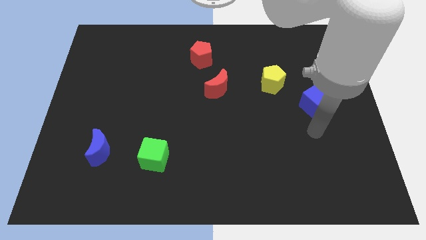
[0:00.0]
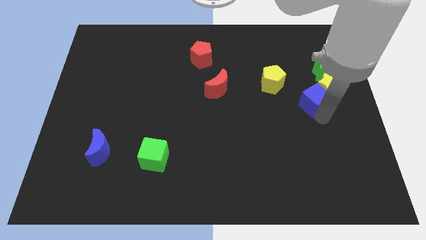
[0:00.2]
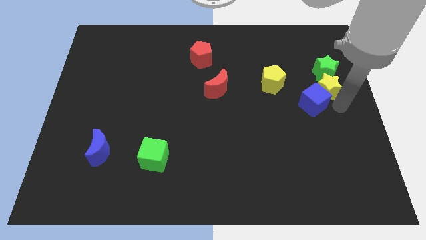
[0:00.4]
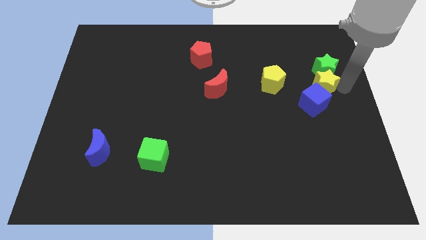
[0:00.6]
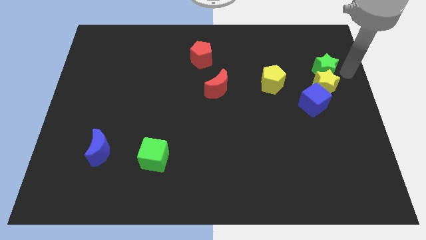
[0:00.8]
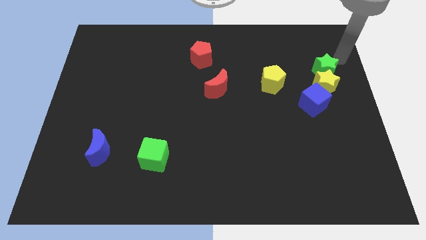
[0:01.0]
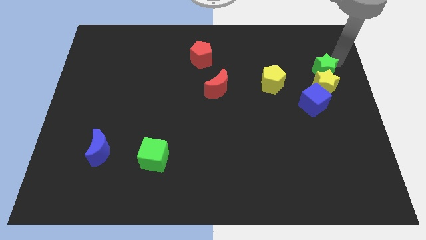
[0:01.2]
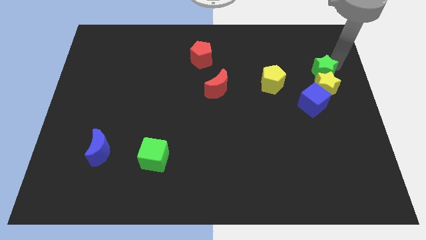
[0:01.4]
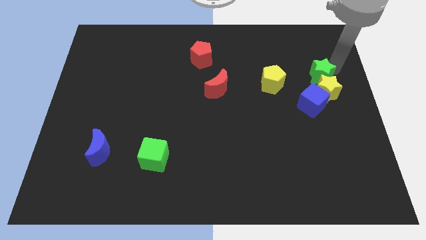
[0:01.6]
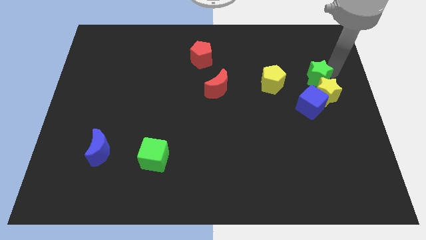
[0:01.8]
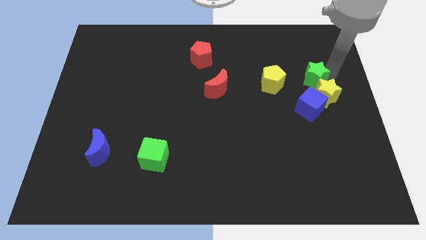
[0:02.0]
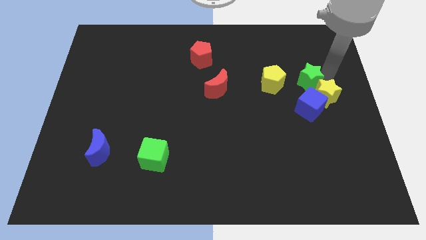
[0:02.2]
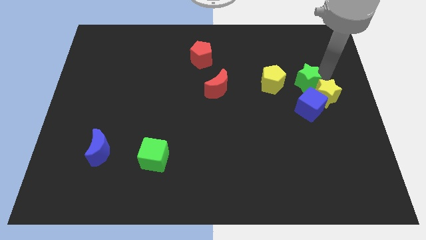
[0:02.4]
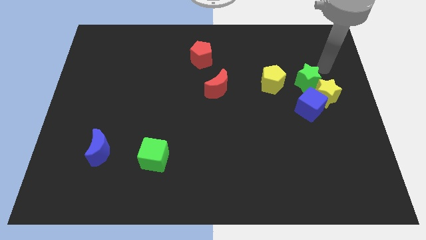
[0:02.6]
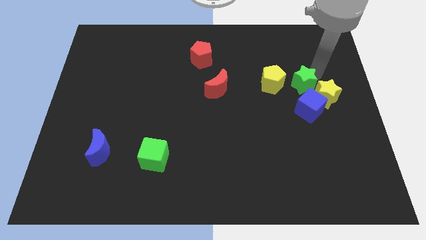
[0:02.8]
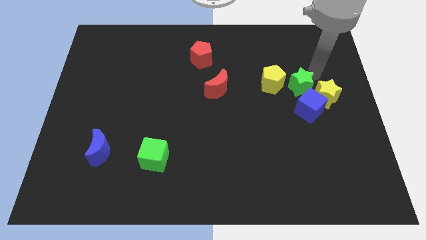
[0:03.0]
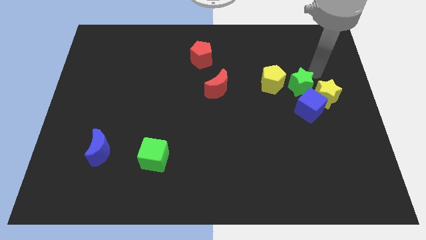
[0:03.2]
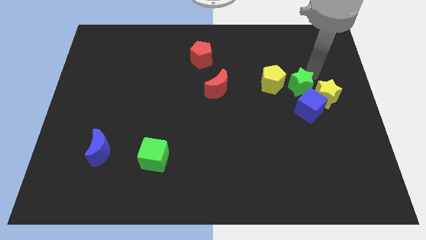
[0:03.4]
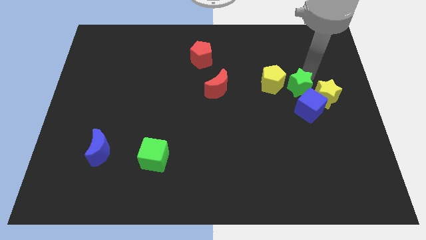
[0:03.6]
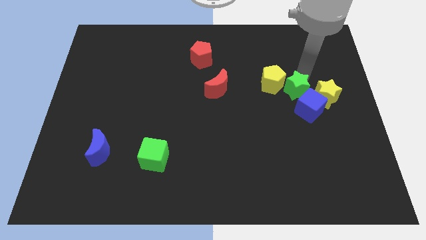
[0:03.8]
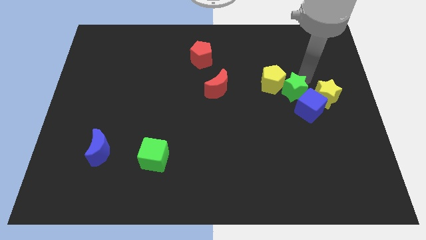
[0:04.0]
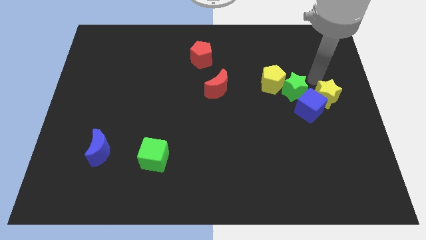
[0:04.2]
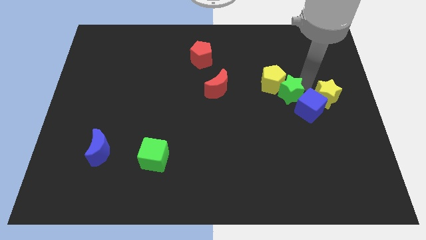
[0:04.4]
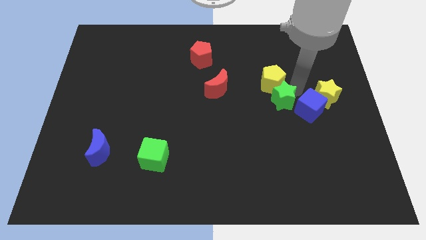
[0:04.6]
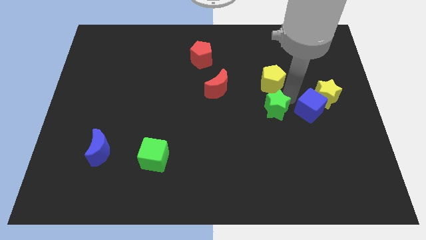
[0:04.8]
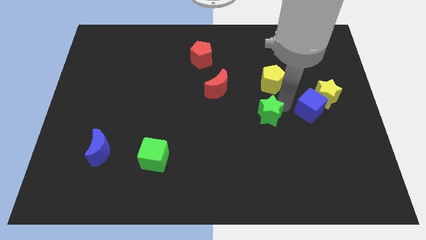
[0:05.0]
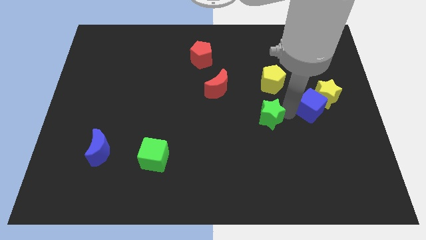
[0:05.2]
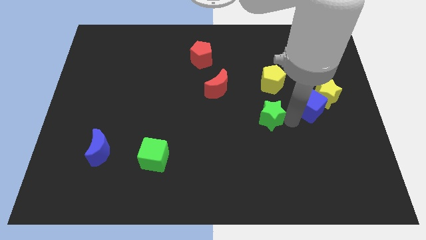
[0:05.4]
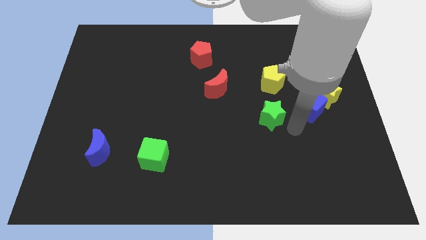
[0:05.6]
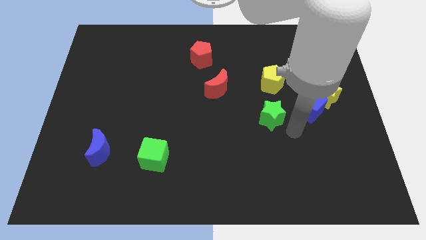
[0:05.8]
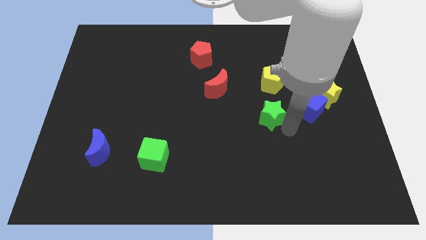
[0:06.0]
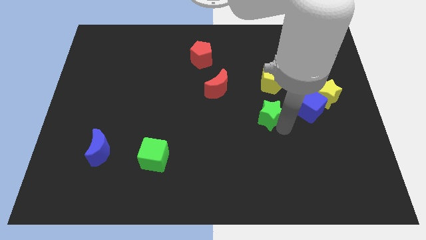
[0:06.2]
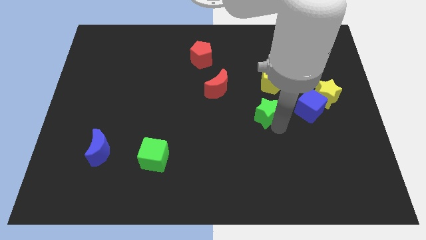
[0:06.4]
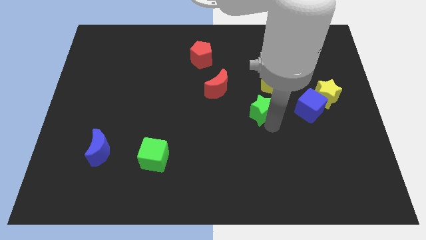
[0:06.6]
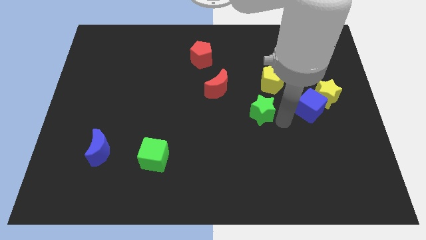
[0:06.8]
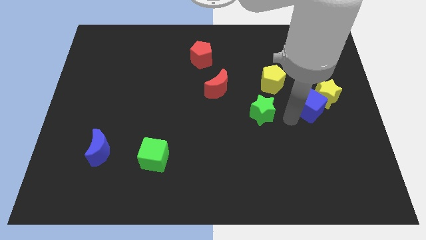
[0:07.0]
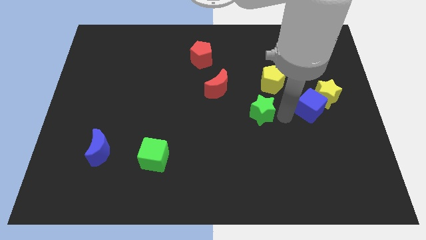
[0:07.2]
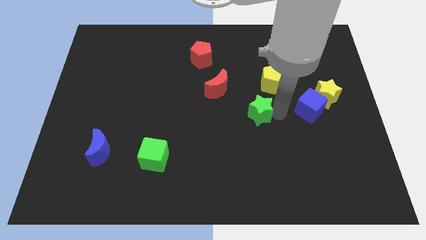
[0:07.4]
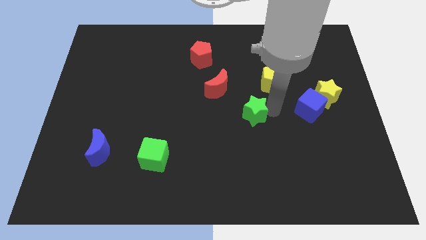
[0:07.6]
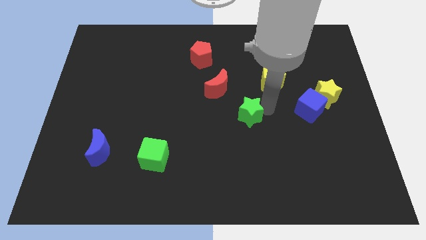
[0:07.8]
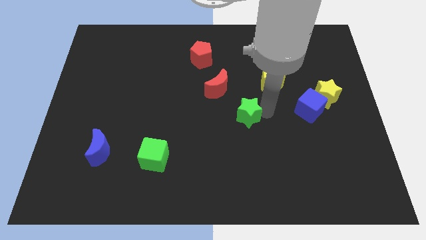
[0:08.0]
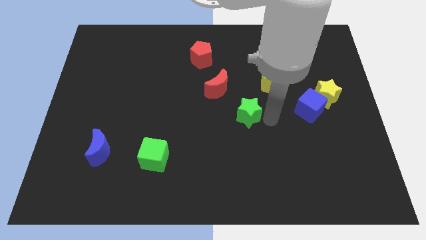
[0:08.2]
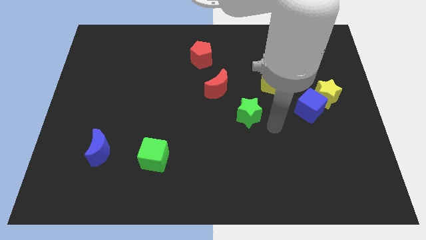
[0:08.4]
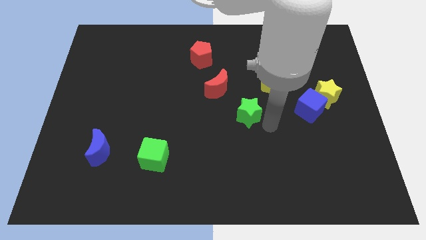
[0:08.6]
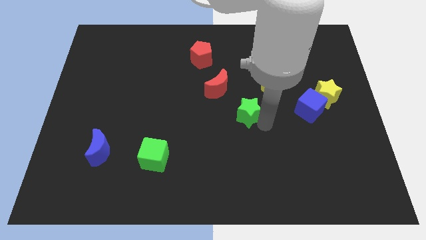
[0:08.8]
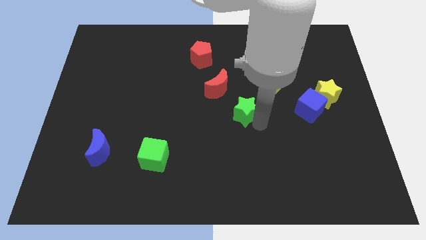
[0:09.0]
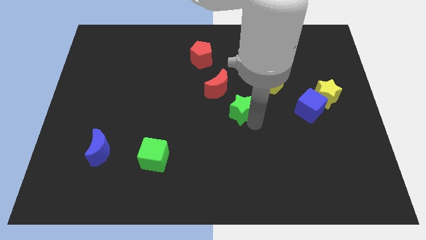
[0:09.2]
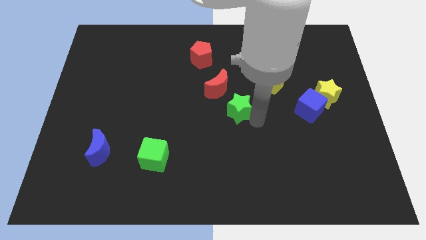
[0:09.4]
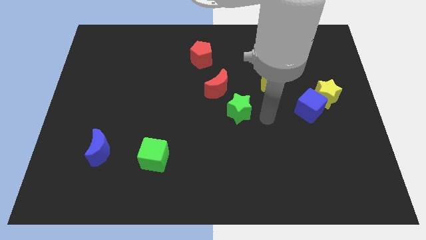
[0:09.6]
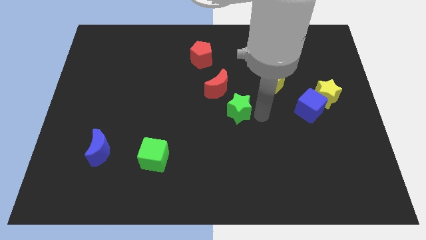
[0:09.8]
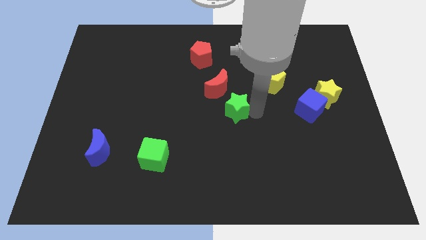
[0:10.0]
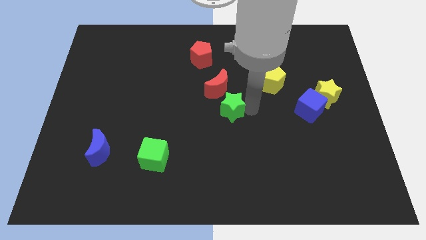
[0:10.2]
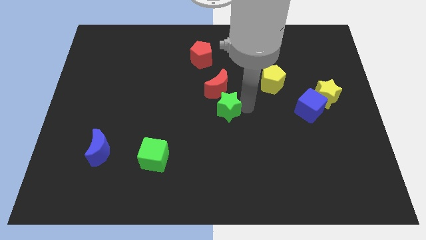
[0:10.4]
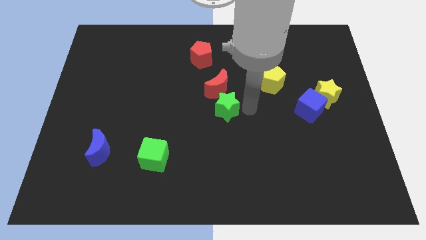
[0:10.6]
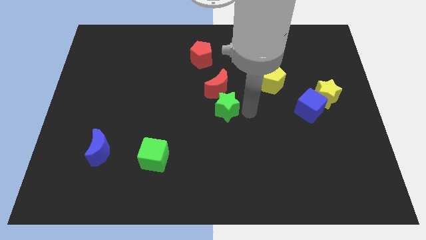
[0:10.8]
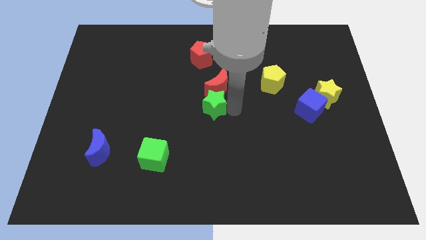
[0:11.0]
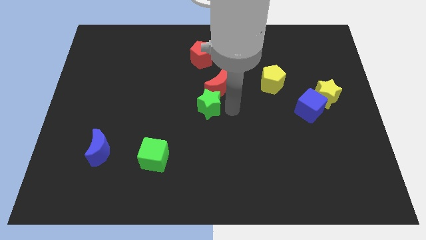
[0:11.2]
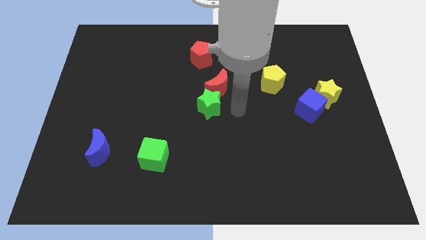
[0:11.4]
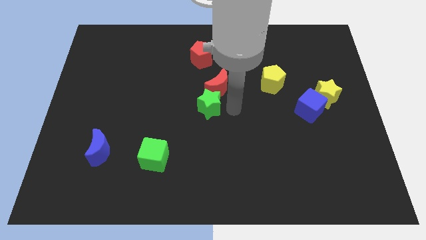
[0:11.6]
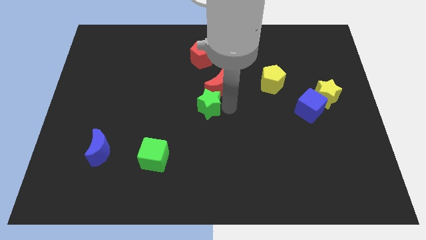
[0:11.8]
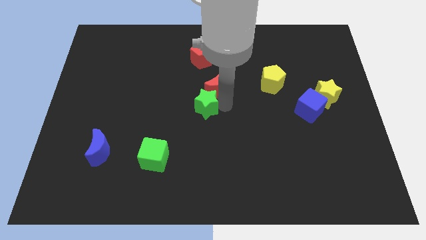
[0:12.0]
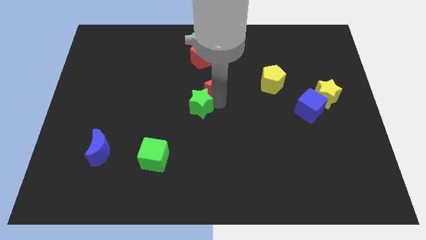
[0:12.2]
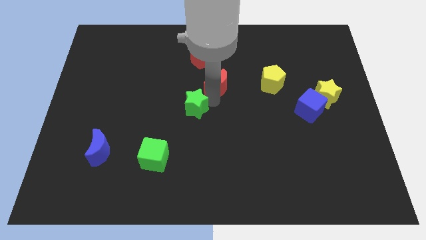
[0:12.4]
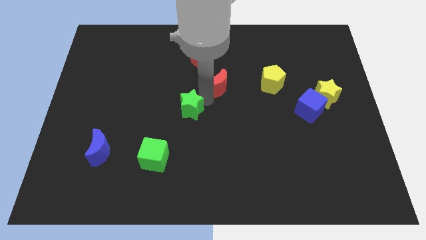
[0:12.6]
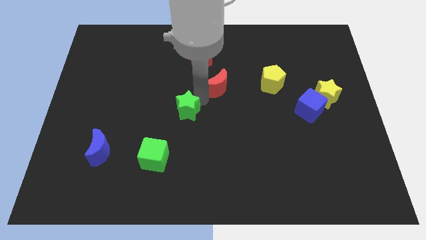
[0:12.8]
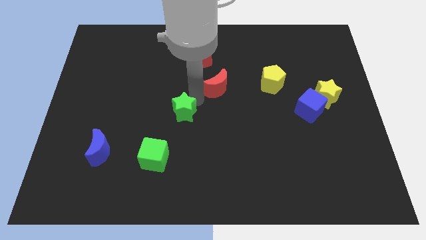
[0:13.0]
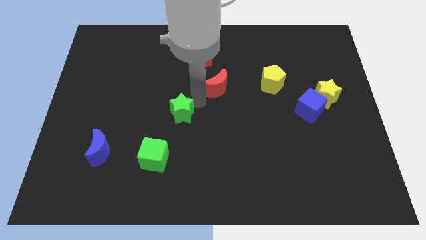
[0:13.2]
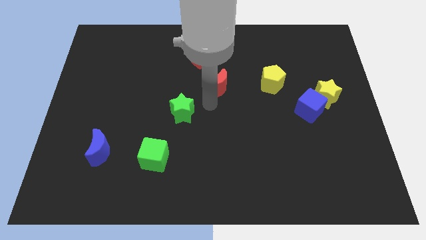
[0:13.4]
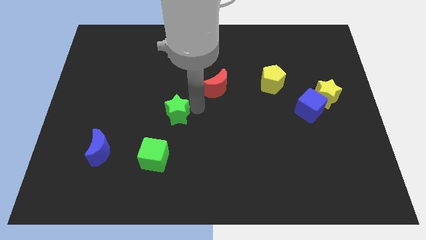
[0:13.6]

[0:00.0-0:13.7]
put the green star to the top of the green cube
